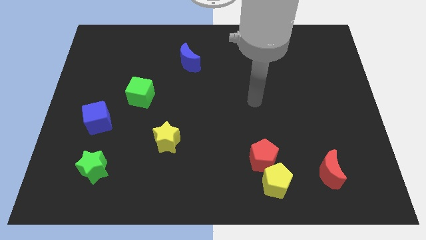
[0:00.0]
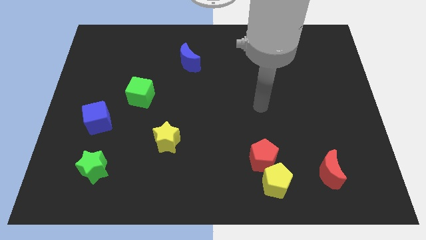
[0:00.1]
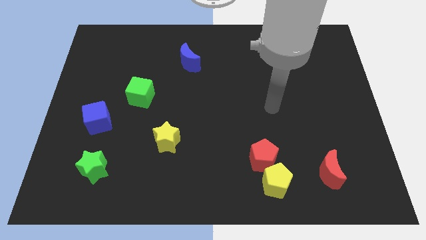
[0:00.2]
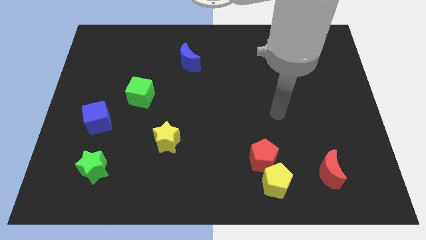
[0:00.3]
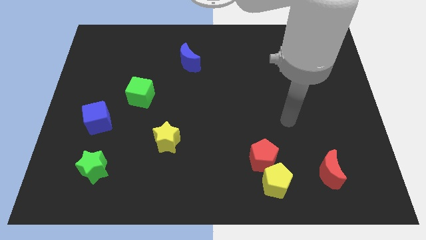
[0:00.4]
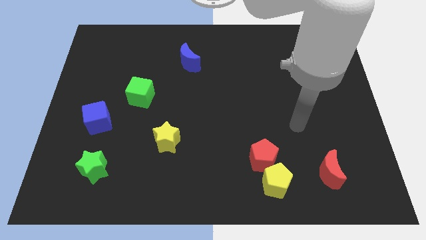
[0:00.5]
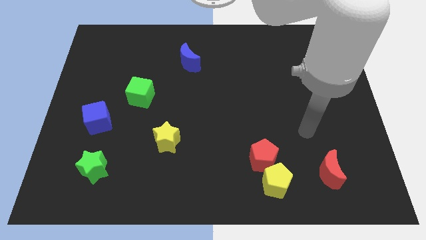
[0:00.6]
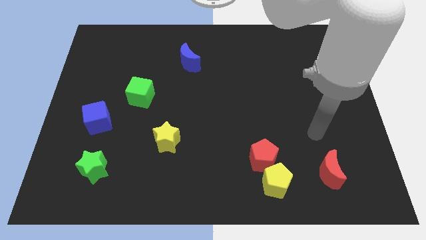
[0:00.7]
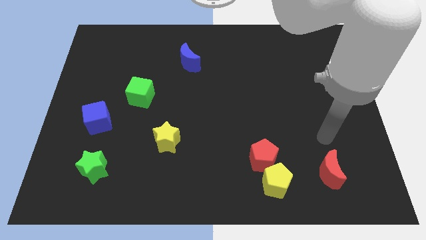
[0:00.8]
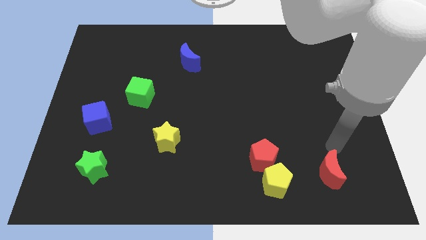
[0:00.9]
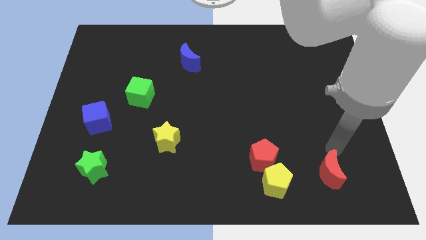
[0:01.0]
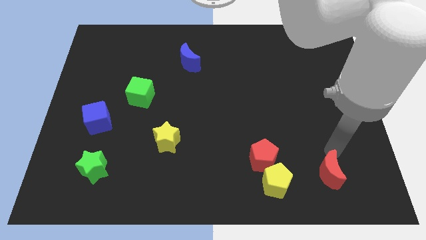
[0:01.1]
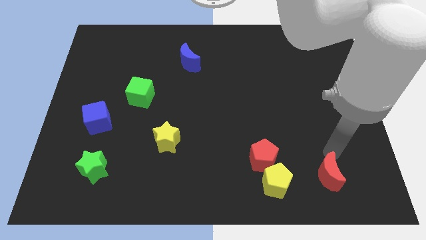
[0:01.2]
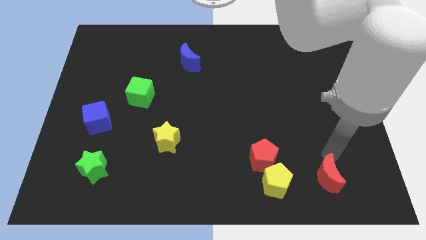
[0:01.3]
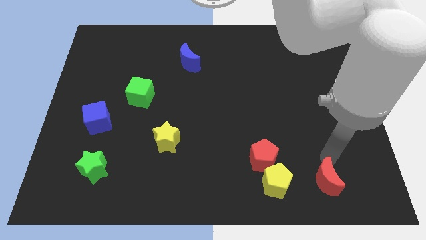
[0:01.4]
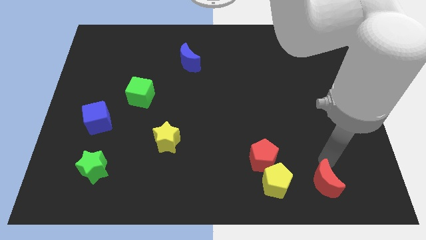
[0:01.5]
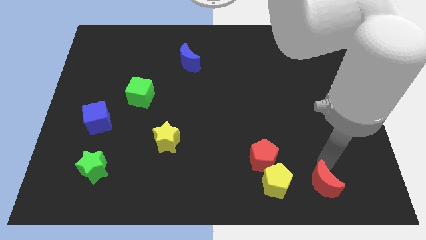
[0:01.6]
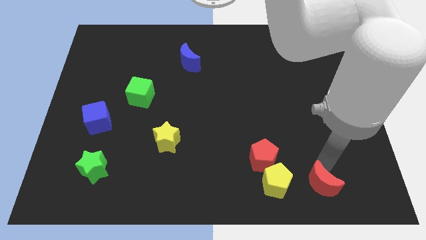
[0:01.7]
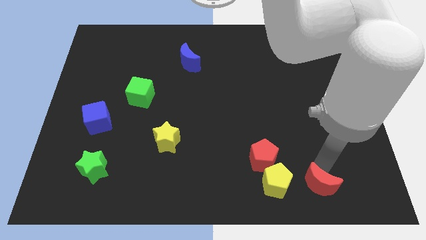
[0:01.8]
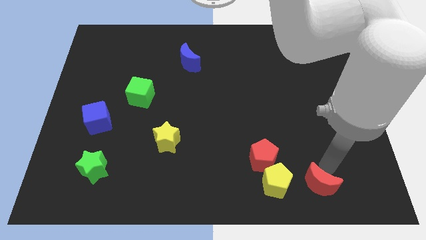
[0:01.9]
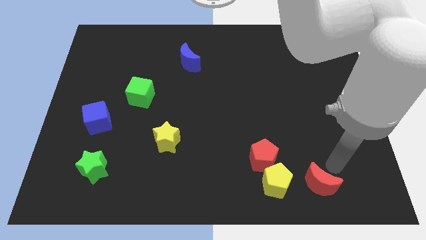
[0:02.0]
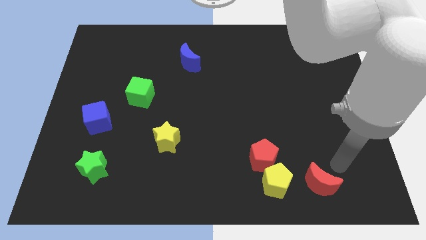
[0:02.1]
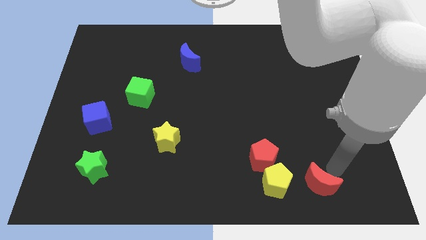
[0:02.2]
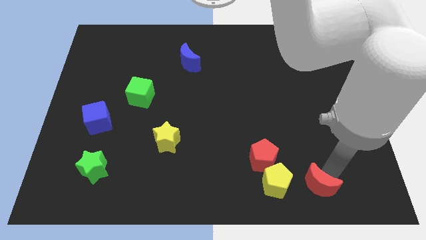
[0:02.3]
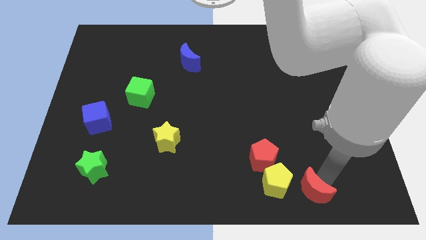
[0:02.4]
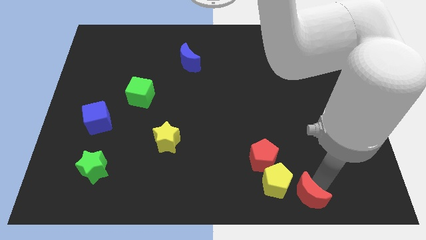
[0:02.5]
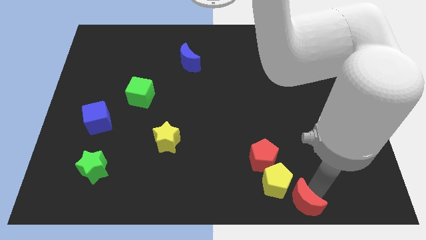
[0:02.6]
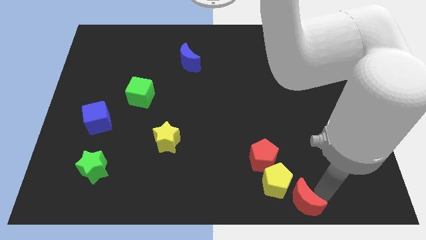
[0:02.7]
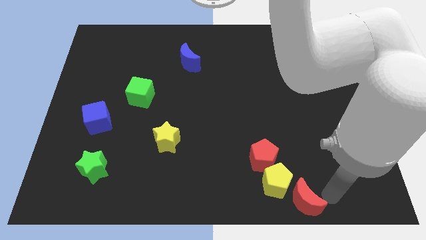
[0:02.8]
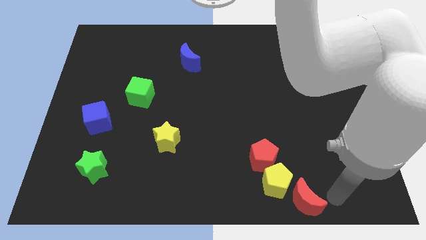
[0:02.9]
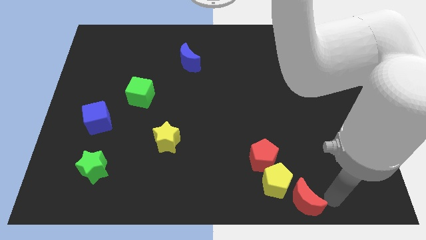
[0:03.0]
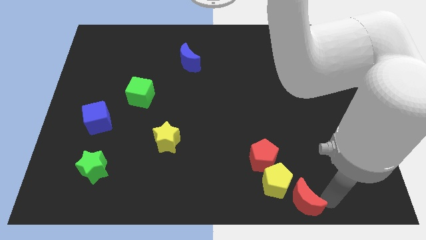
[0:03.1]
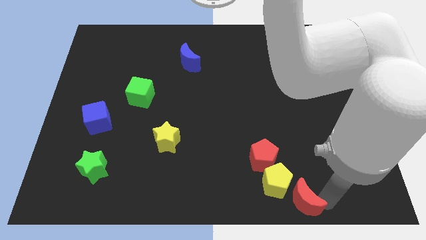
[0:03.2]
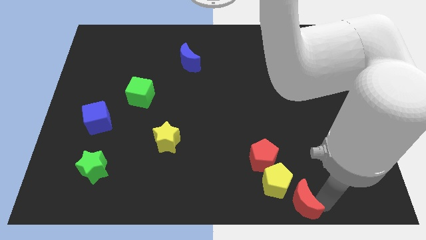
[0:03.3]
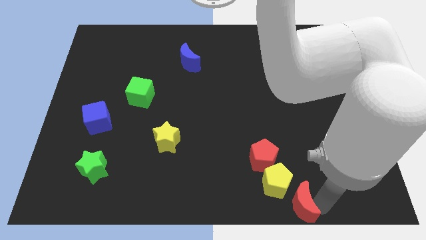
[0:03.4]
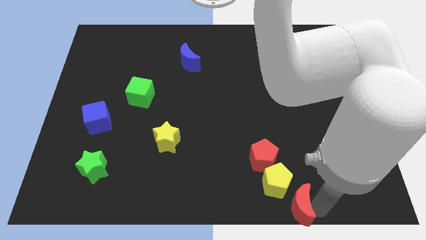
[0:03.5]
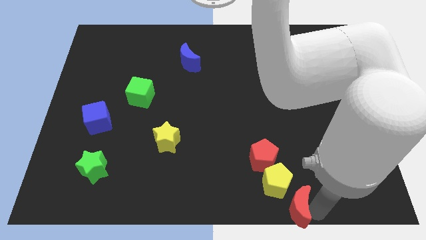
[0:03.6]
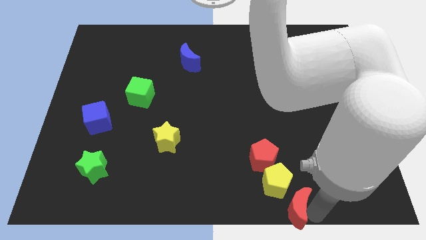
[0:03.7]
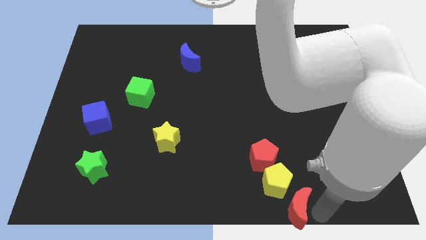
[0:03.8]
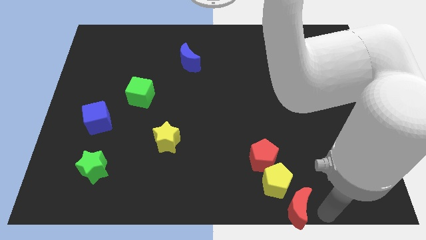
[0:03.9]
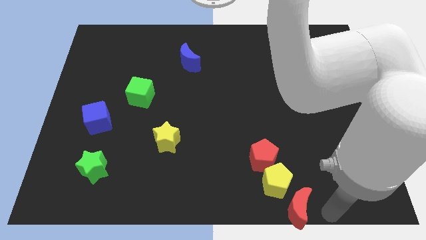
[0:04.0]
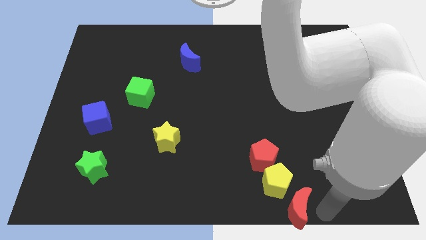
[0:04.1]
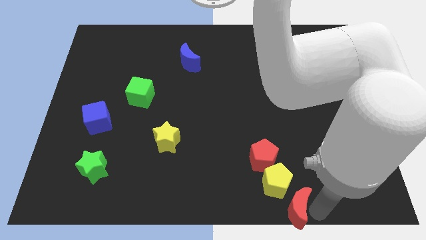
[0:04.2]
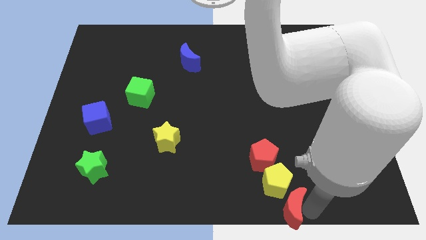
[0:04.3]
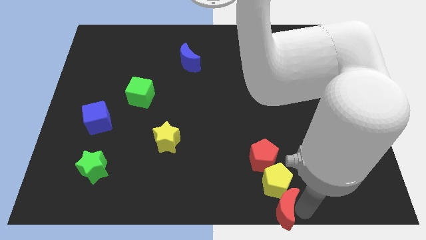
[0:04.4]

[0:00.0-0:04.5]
slightly move the red moon left

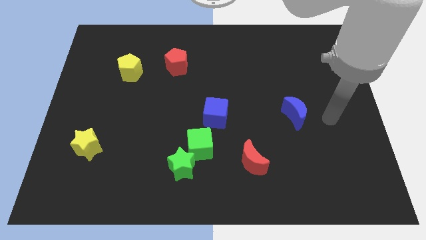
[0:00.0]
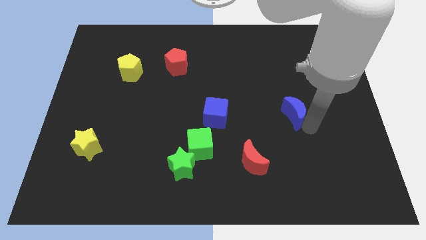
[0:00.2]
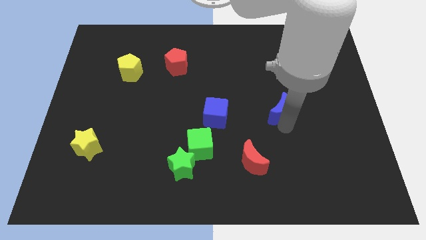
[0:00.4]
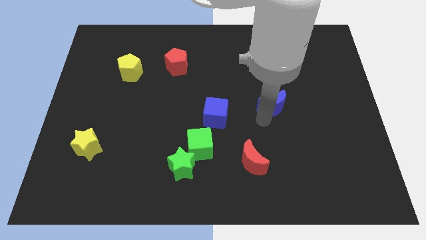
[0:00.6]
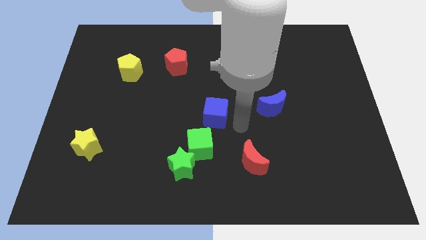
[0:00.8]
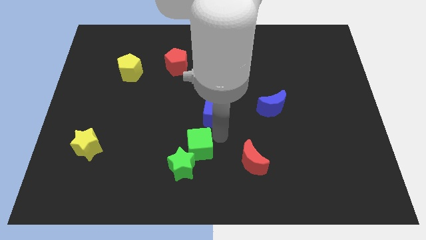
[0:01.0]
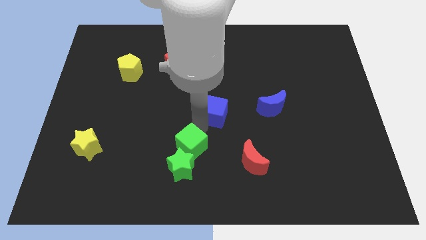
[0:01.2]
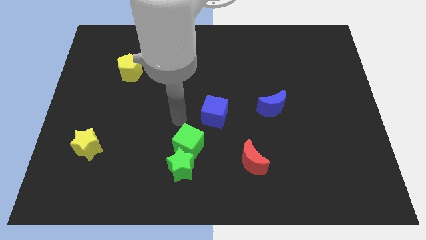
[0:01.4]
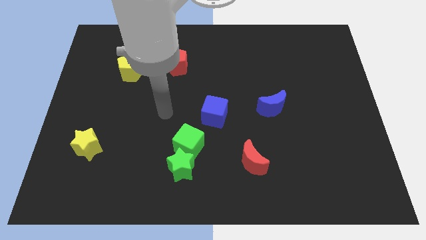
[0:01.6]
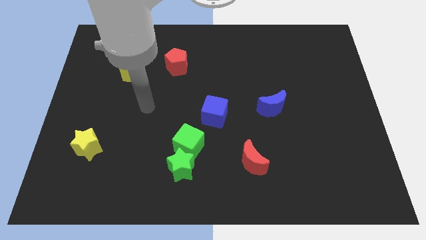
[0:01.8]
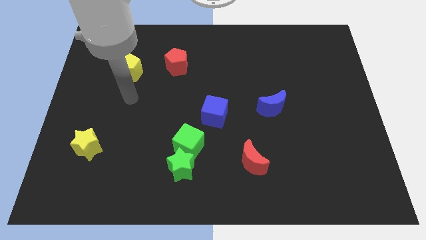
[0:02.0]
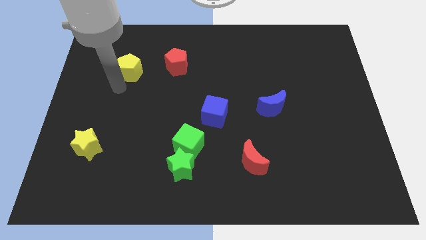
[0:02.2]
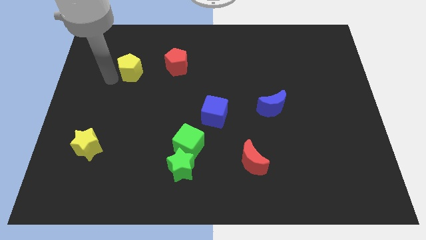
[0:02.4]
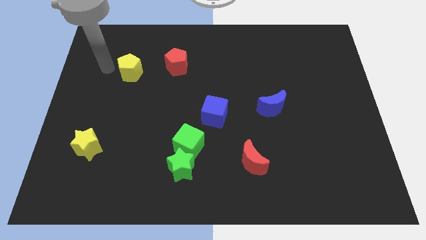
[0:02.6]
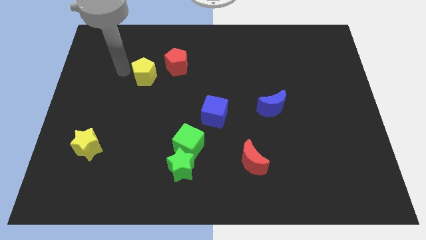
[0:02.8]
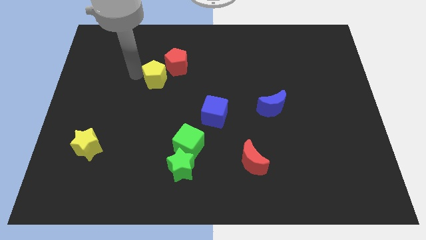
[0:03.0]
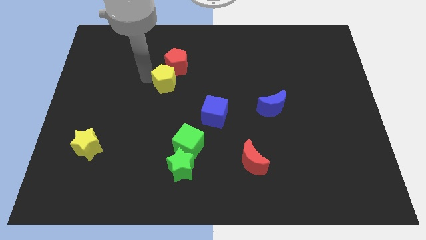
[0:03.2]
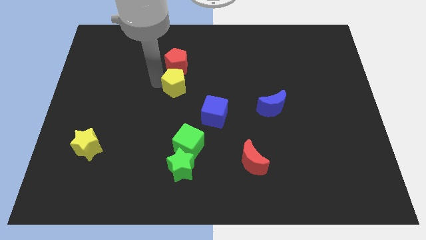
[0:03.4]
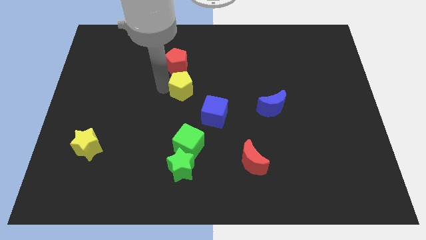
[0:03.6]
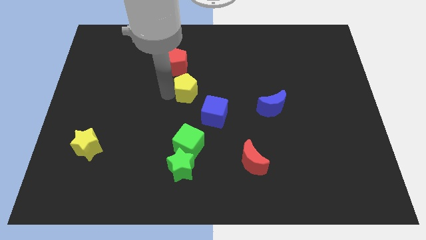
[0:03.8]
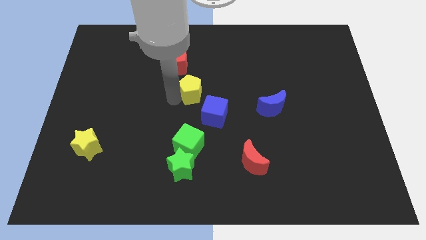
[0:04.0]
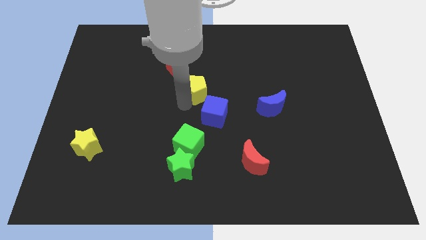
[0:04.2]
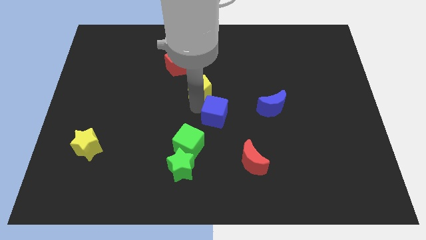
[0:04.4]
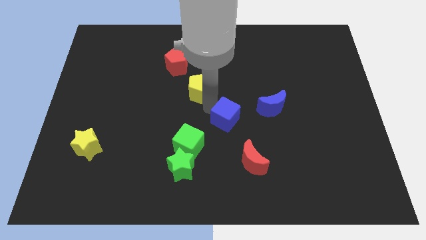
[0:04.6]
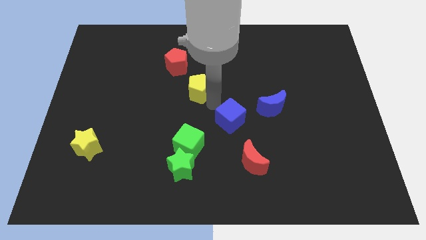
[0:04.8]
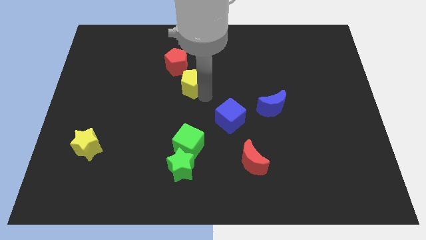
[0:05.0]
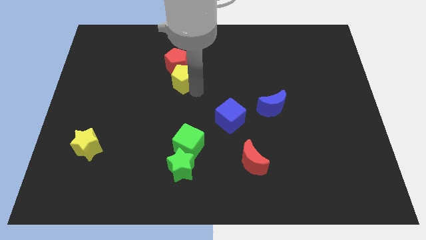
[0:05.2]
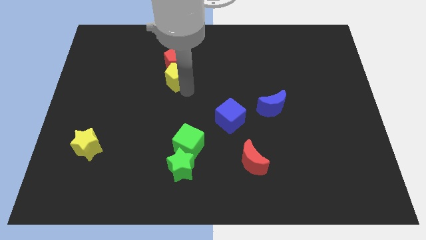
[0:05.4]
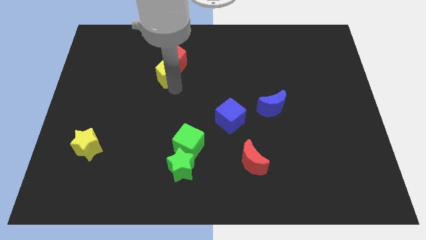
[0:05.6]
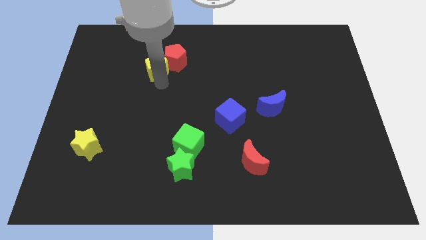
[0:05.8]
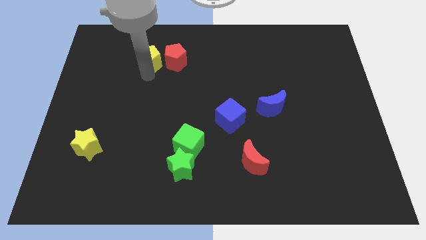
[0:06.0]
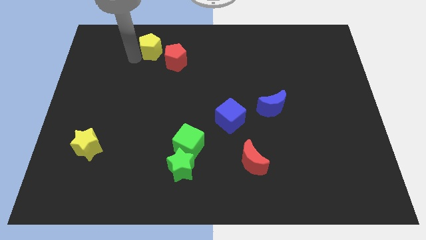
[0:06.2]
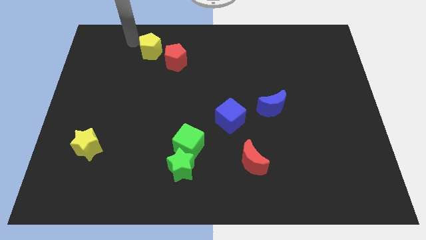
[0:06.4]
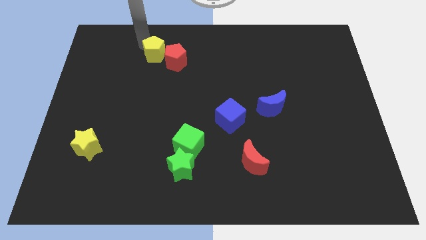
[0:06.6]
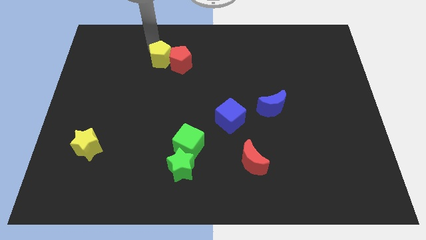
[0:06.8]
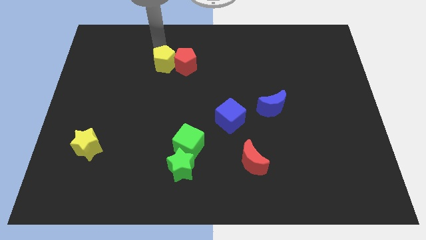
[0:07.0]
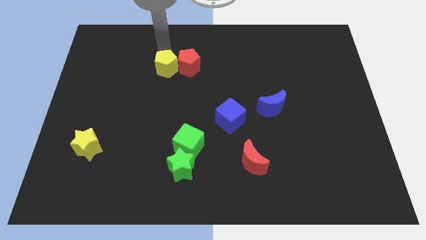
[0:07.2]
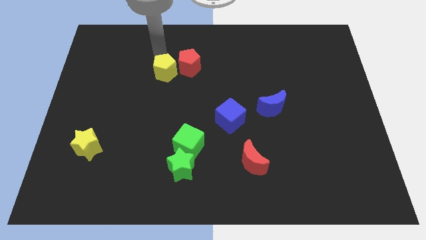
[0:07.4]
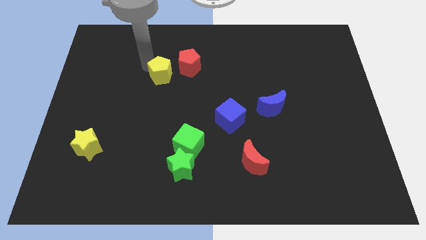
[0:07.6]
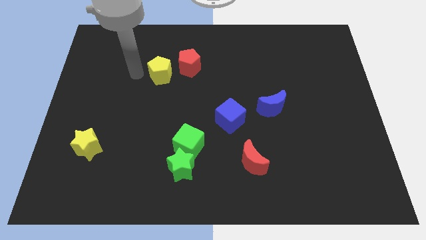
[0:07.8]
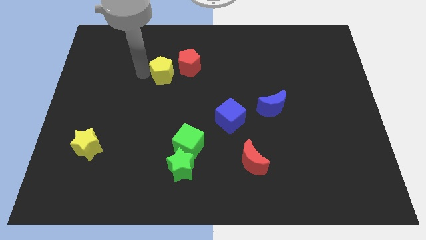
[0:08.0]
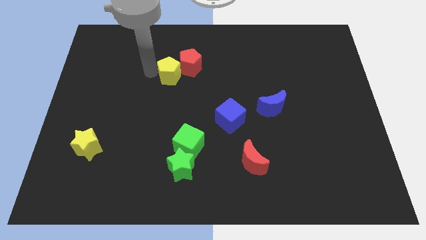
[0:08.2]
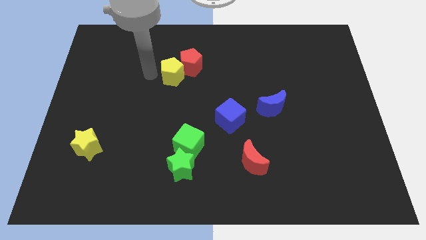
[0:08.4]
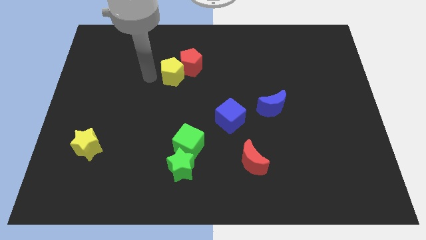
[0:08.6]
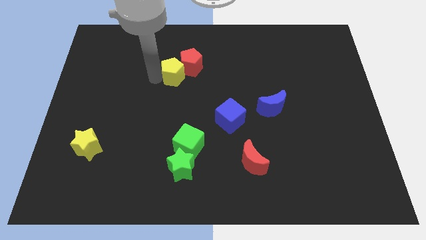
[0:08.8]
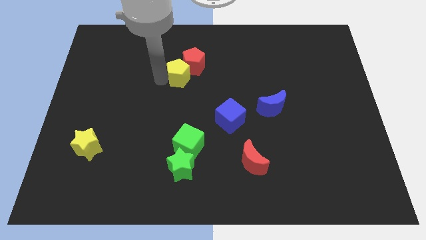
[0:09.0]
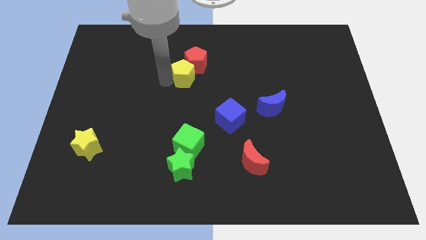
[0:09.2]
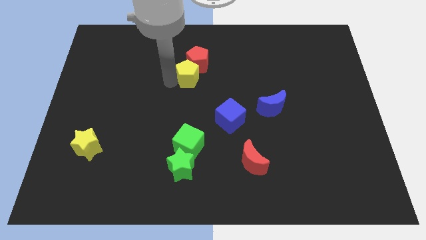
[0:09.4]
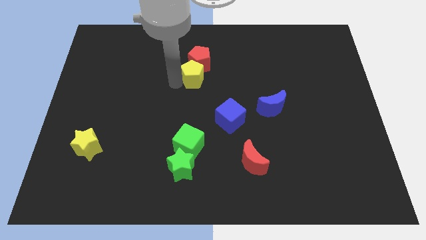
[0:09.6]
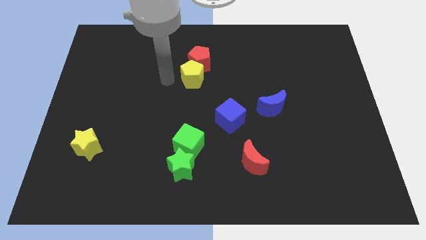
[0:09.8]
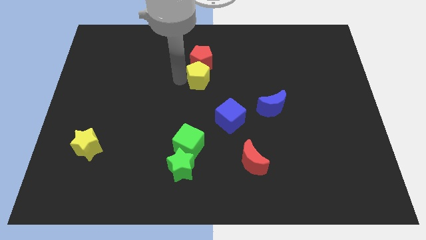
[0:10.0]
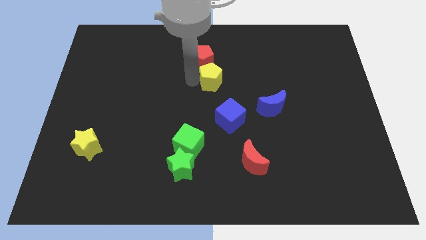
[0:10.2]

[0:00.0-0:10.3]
slide the yellow pentagon to the right
